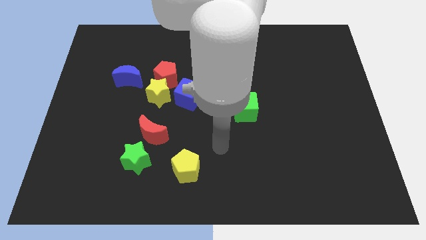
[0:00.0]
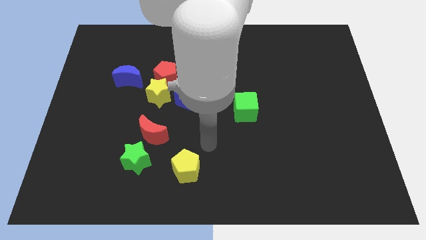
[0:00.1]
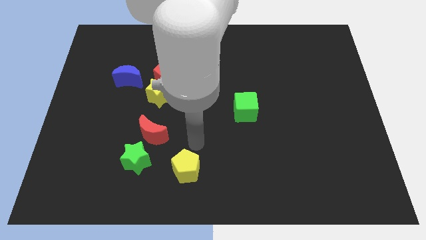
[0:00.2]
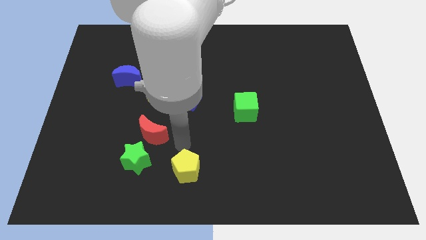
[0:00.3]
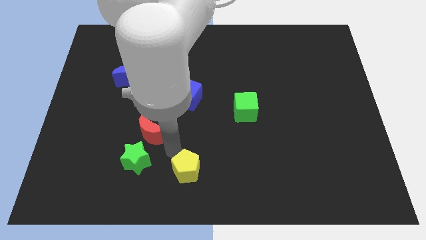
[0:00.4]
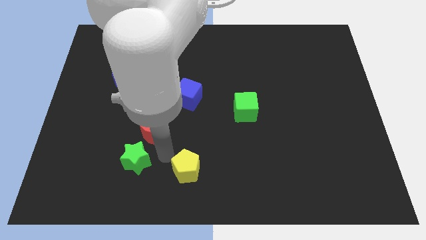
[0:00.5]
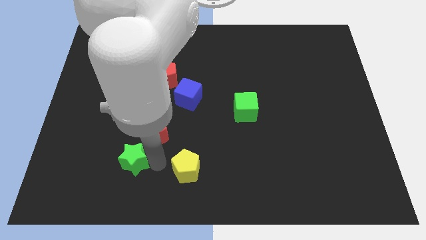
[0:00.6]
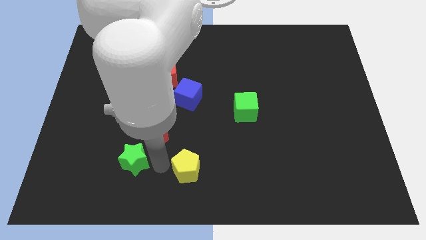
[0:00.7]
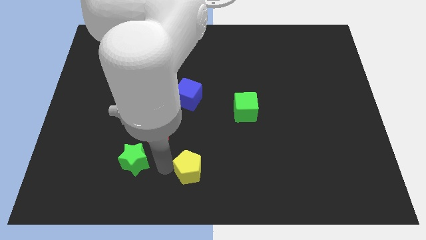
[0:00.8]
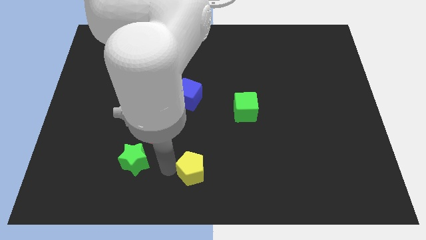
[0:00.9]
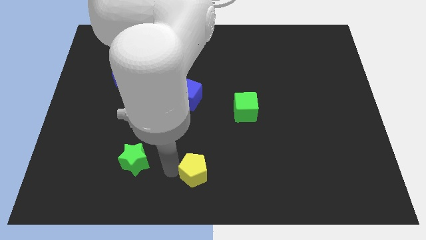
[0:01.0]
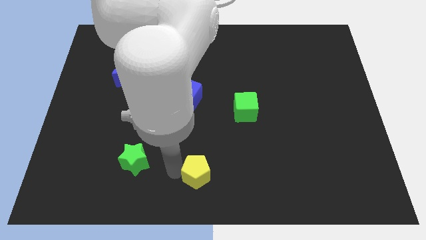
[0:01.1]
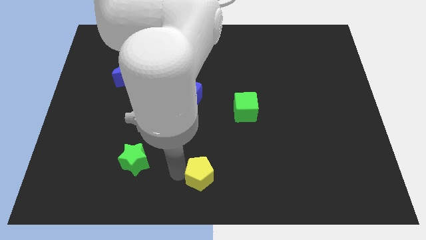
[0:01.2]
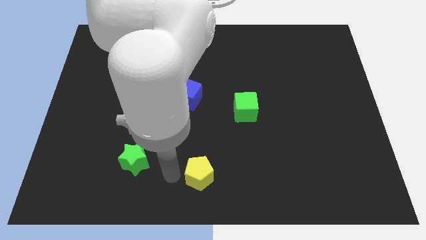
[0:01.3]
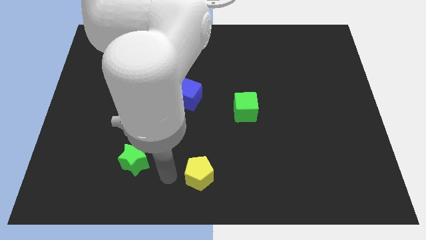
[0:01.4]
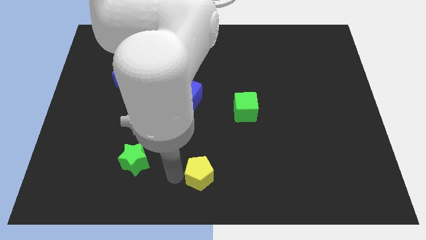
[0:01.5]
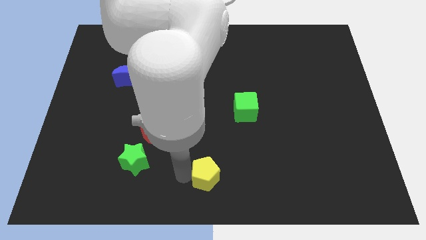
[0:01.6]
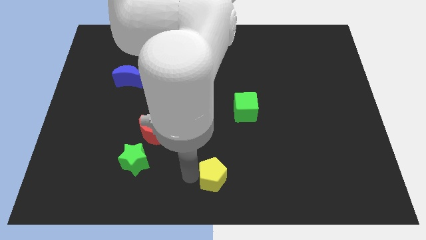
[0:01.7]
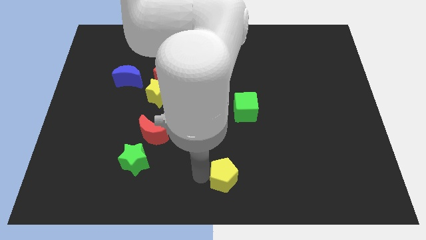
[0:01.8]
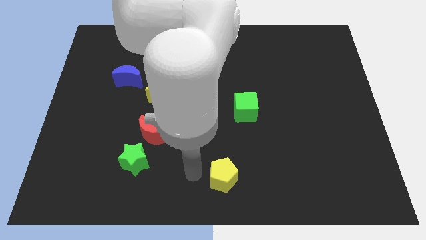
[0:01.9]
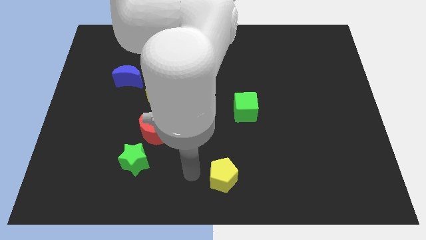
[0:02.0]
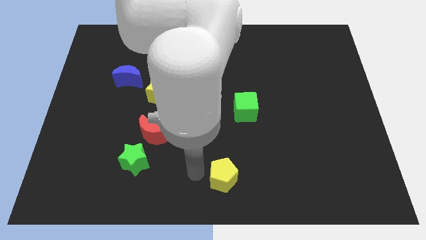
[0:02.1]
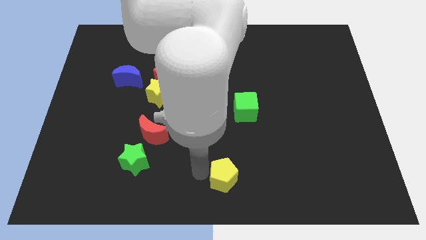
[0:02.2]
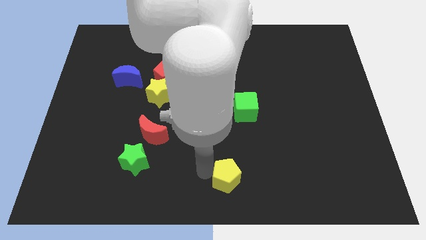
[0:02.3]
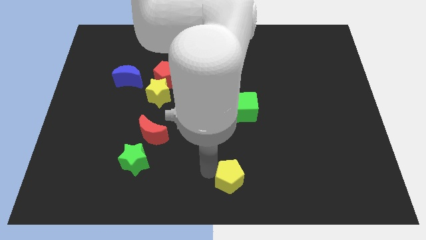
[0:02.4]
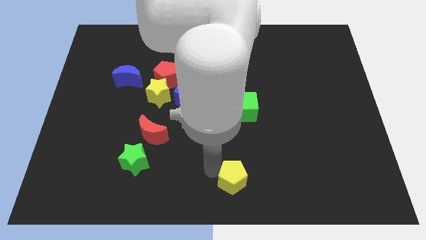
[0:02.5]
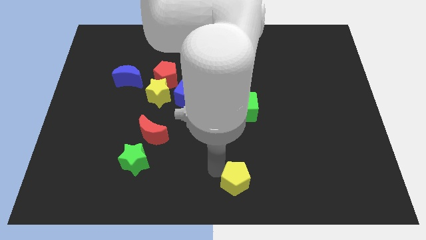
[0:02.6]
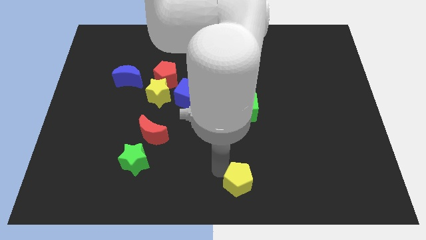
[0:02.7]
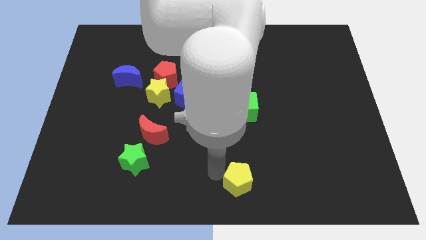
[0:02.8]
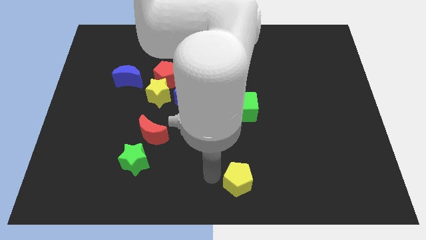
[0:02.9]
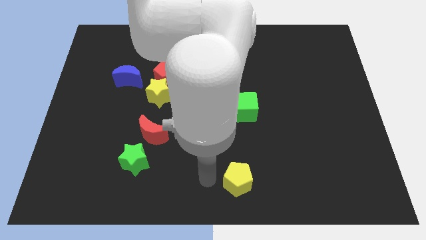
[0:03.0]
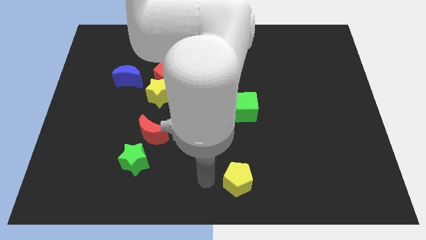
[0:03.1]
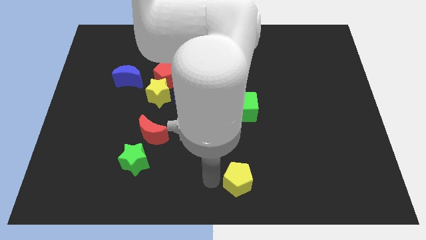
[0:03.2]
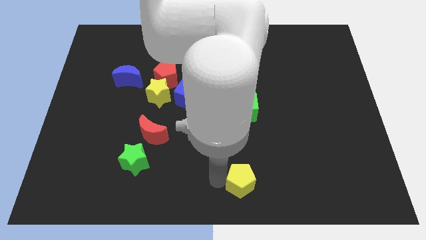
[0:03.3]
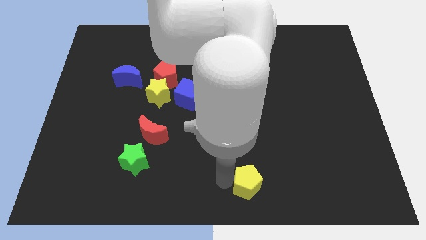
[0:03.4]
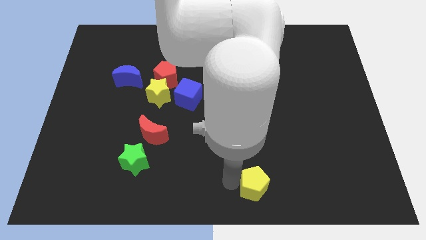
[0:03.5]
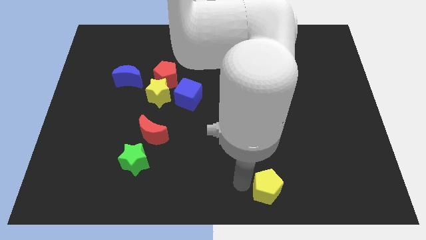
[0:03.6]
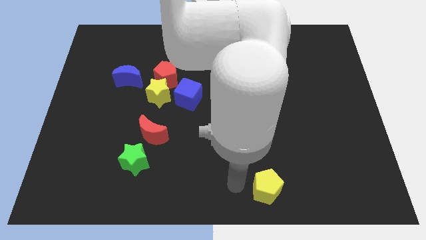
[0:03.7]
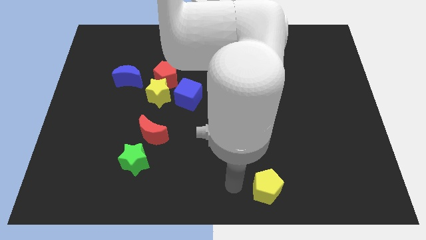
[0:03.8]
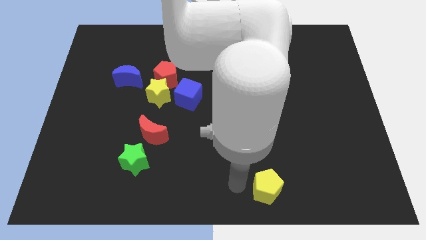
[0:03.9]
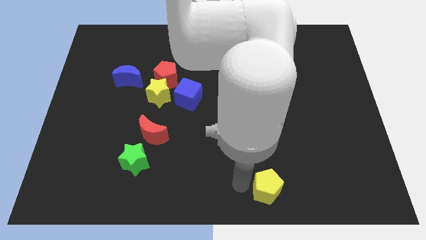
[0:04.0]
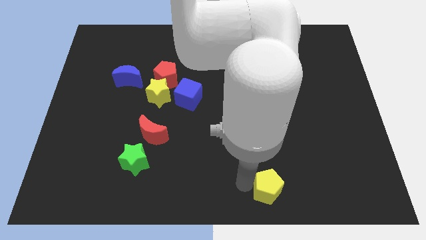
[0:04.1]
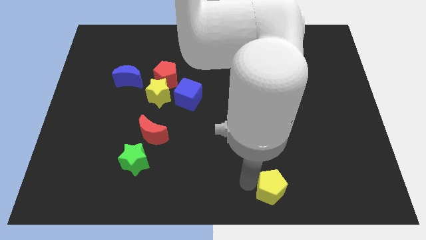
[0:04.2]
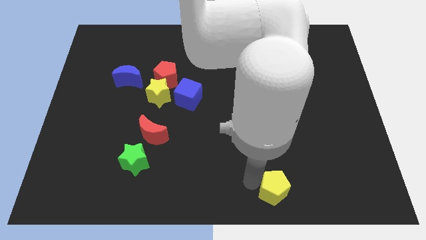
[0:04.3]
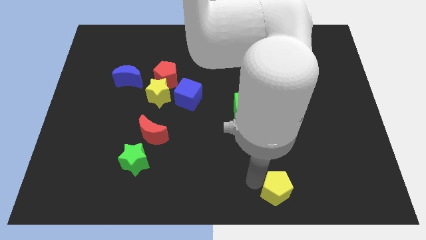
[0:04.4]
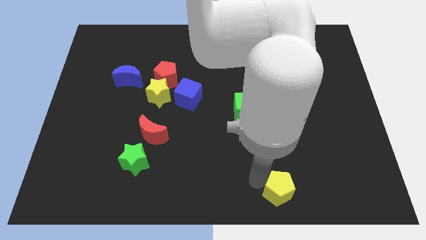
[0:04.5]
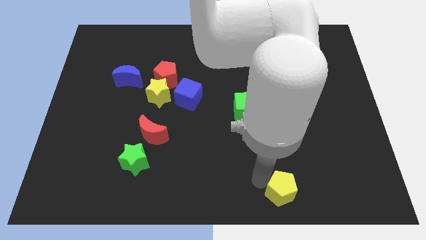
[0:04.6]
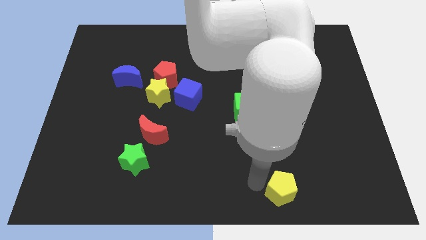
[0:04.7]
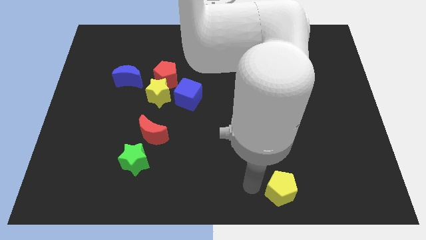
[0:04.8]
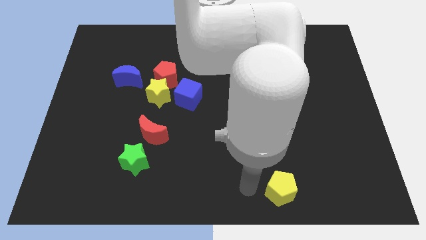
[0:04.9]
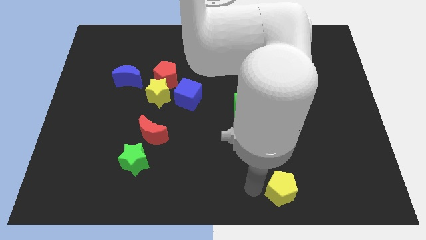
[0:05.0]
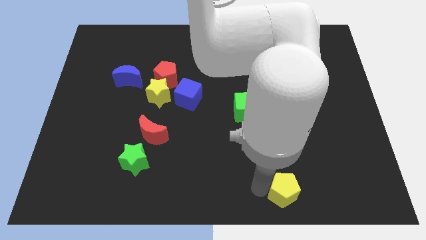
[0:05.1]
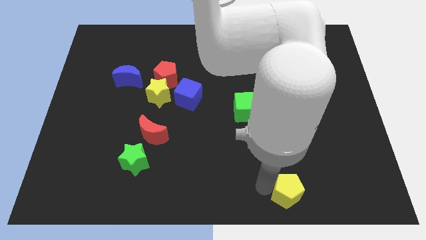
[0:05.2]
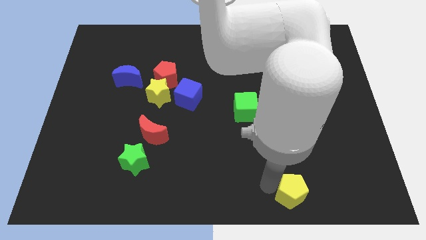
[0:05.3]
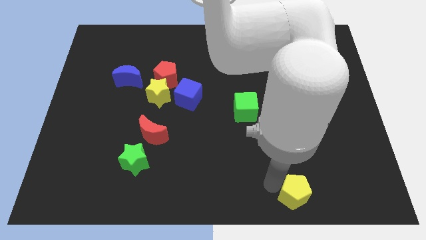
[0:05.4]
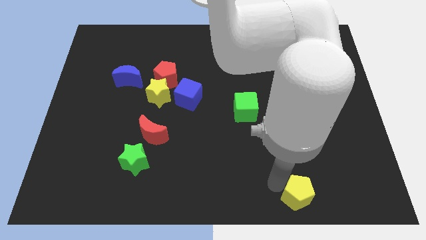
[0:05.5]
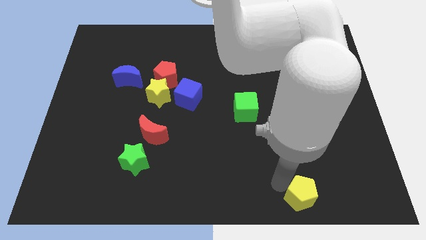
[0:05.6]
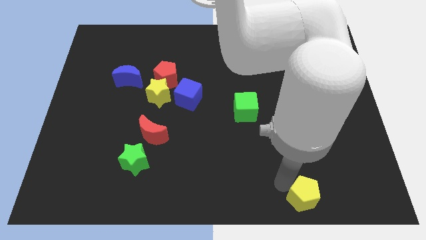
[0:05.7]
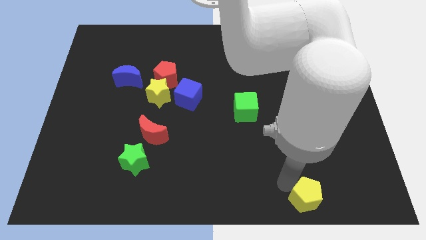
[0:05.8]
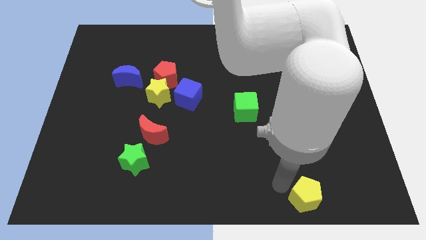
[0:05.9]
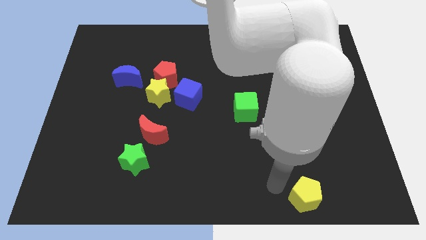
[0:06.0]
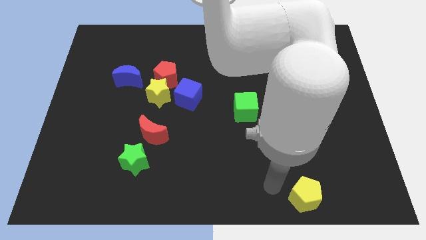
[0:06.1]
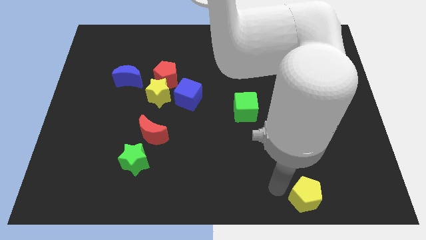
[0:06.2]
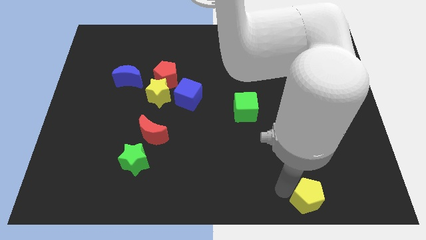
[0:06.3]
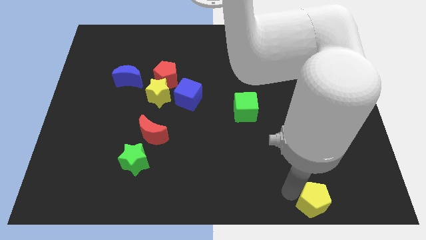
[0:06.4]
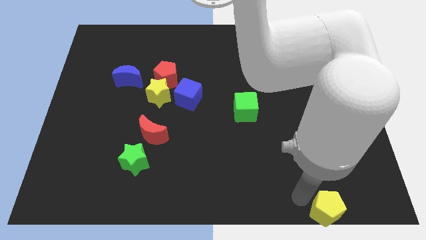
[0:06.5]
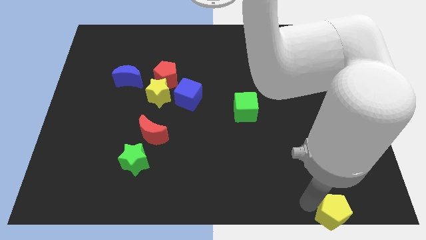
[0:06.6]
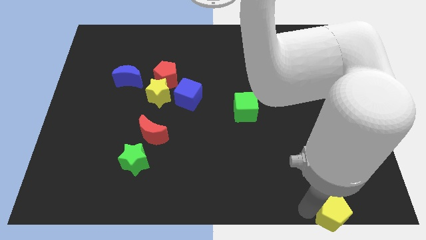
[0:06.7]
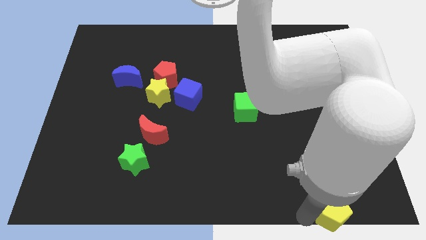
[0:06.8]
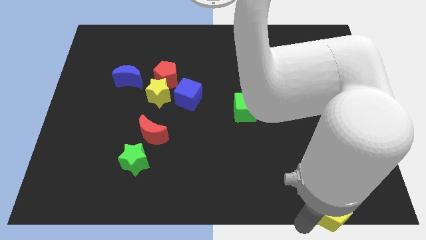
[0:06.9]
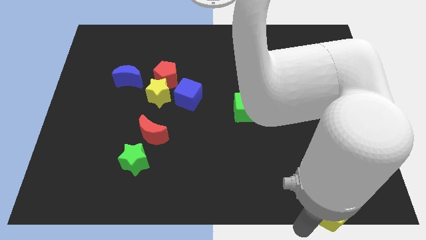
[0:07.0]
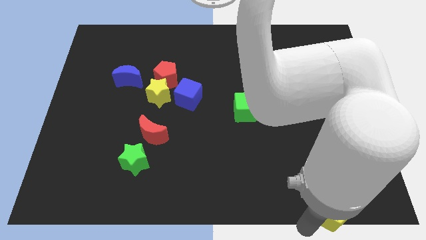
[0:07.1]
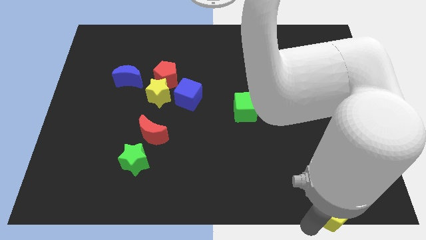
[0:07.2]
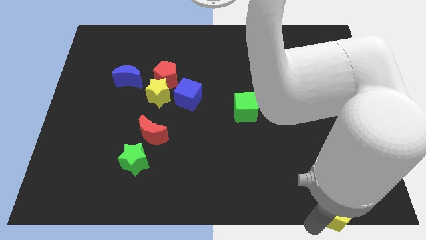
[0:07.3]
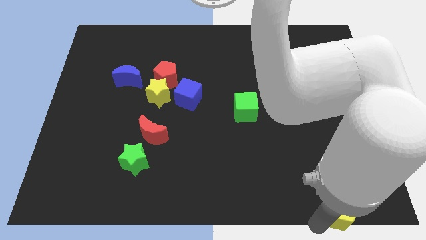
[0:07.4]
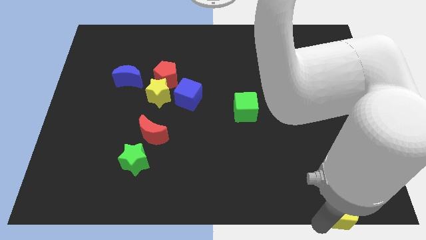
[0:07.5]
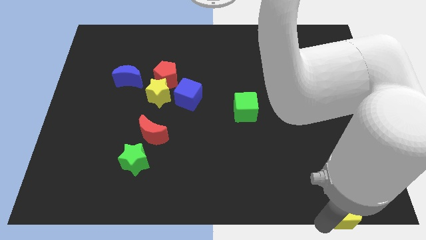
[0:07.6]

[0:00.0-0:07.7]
move the yellow pentagon to the bottom right
